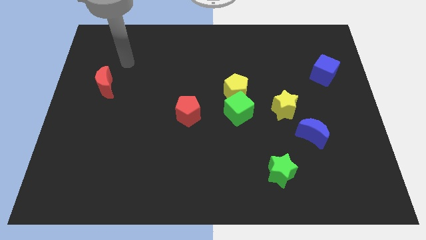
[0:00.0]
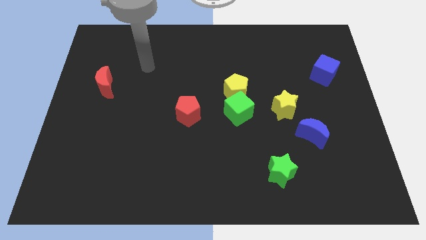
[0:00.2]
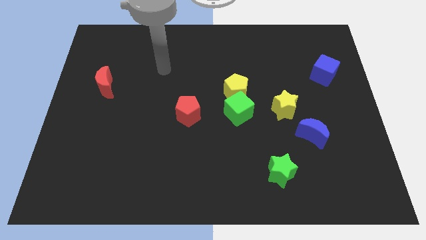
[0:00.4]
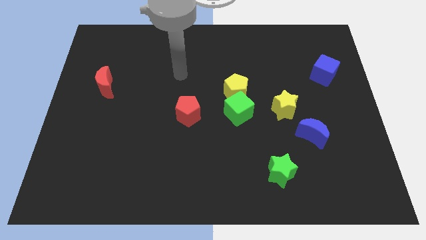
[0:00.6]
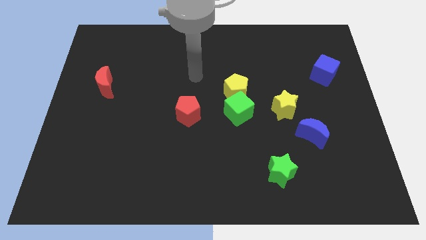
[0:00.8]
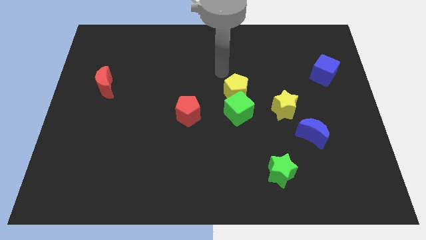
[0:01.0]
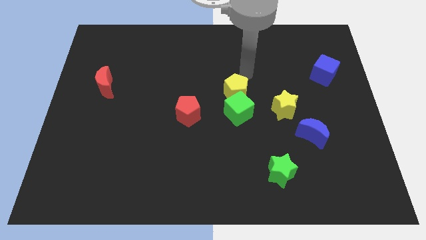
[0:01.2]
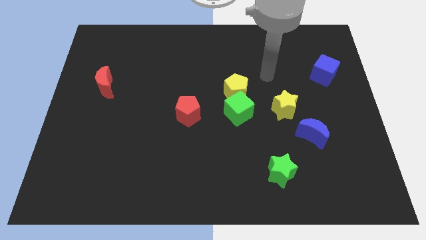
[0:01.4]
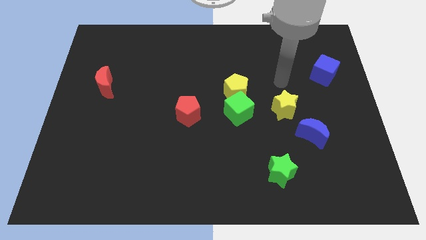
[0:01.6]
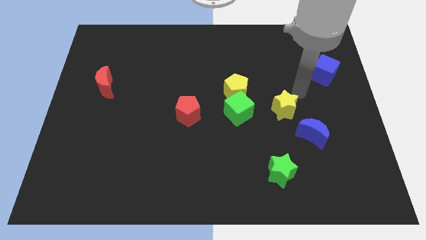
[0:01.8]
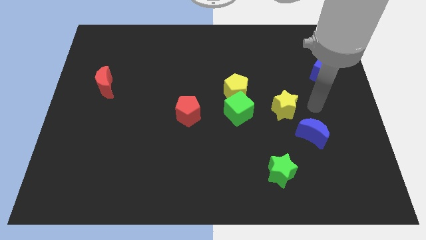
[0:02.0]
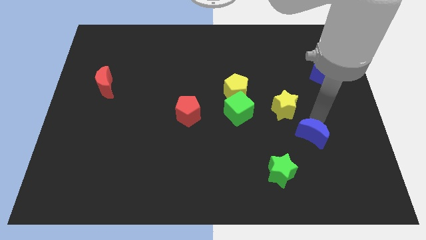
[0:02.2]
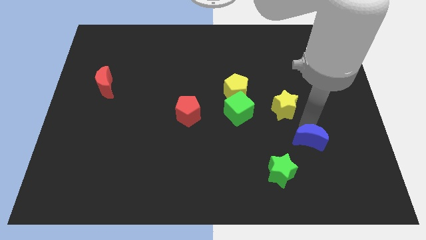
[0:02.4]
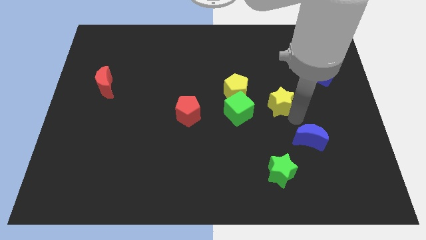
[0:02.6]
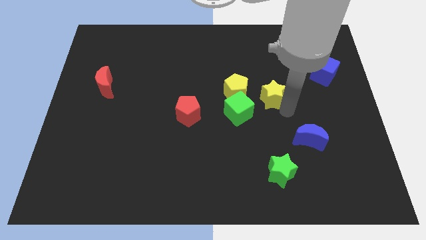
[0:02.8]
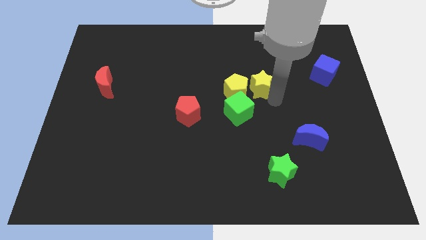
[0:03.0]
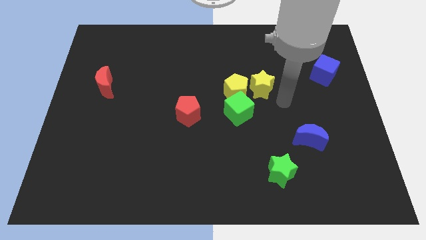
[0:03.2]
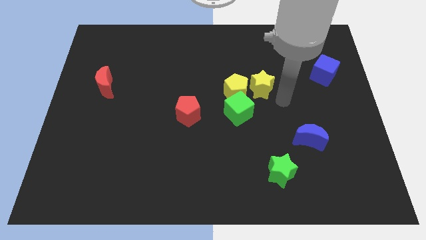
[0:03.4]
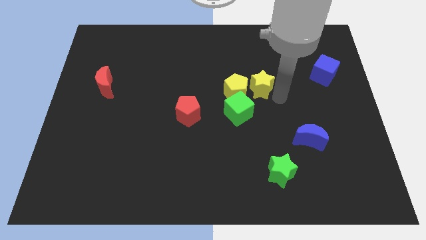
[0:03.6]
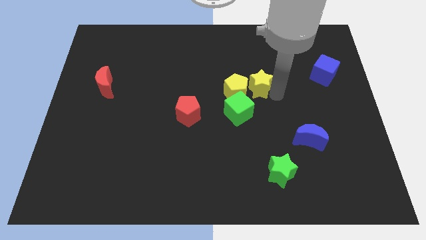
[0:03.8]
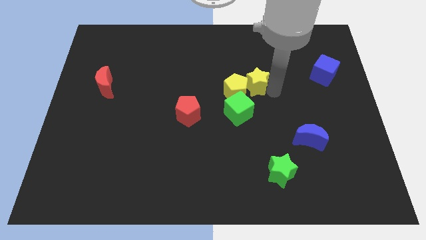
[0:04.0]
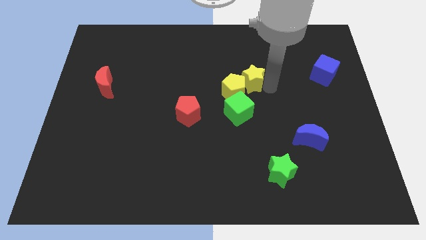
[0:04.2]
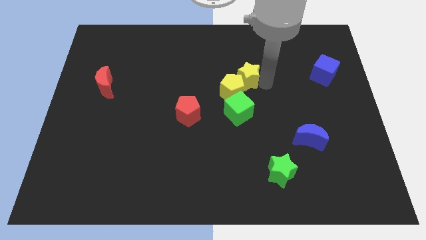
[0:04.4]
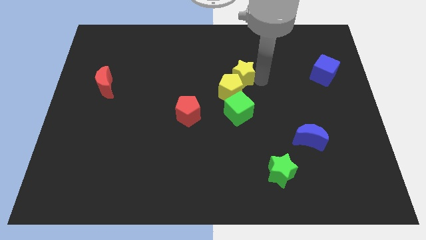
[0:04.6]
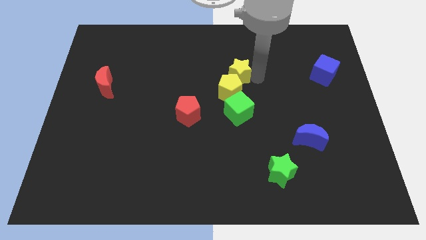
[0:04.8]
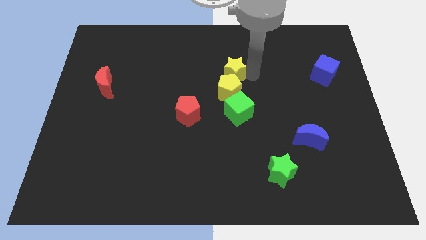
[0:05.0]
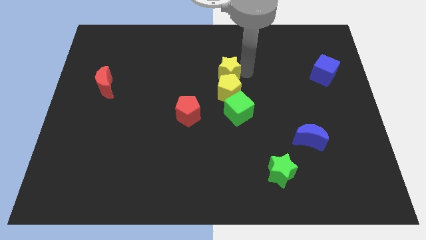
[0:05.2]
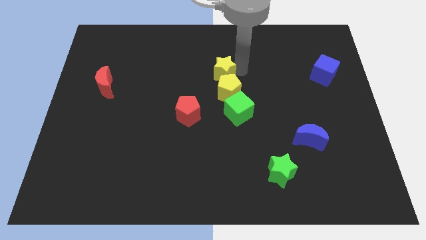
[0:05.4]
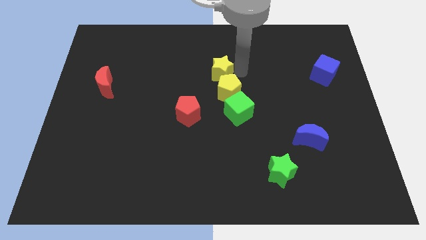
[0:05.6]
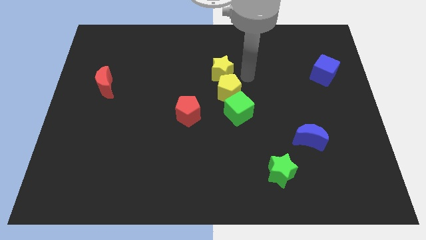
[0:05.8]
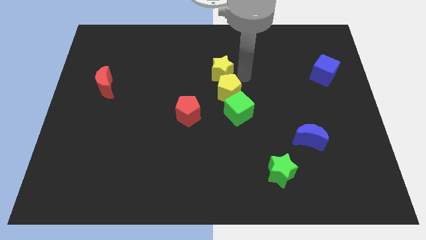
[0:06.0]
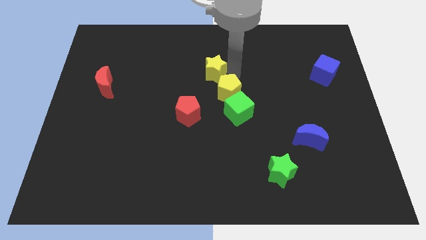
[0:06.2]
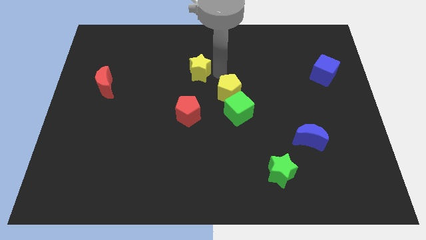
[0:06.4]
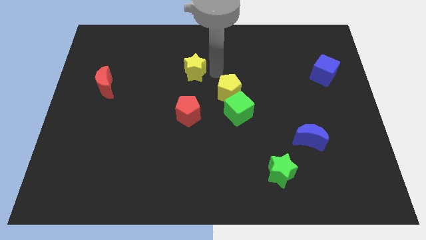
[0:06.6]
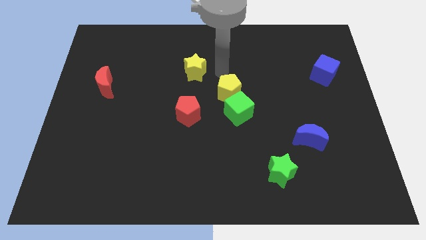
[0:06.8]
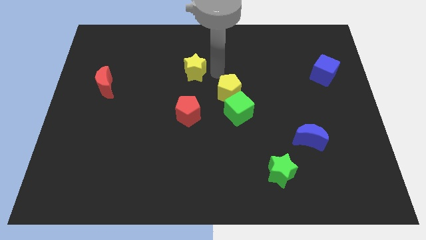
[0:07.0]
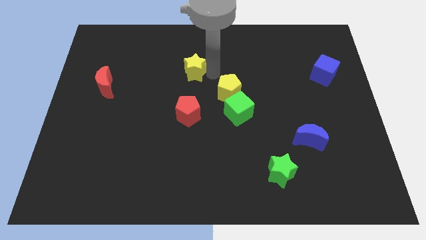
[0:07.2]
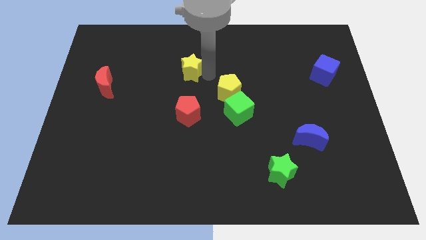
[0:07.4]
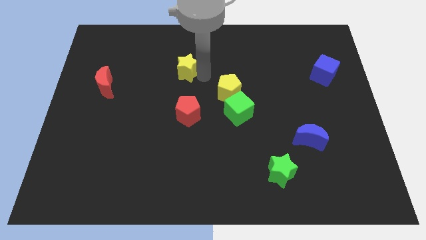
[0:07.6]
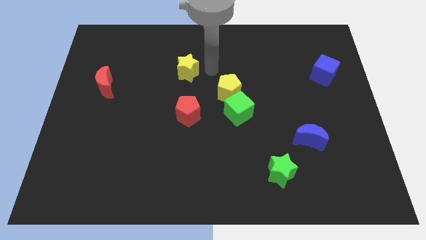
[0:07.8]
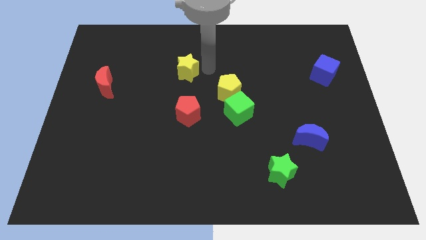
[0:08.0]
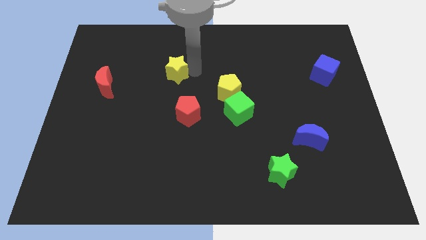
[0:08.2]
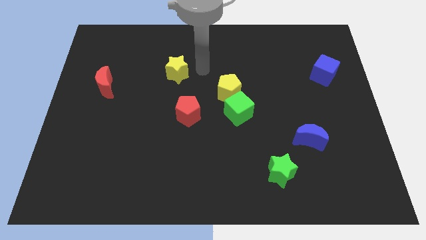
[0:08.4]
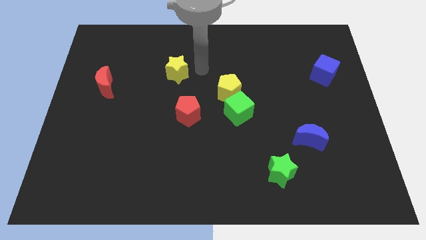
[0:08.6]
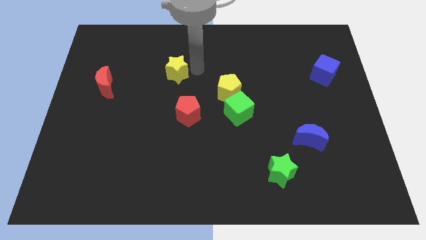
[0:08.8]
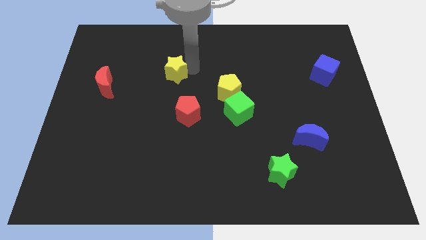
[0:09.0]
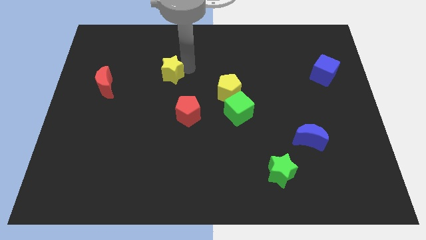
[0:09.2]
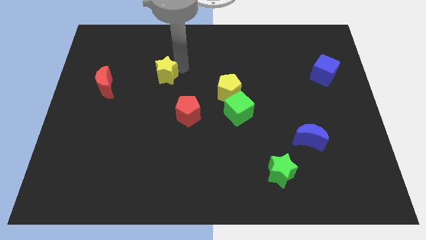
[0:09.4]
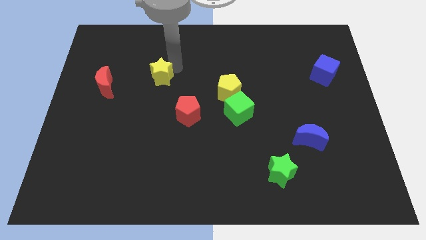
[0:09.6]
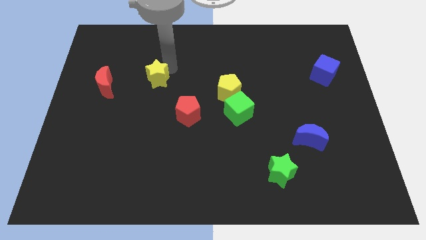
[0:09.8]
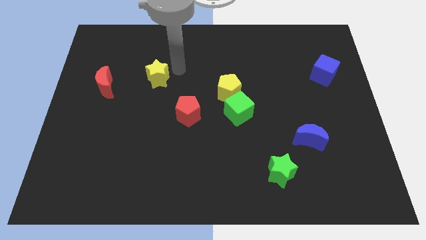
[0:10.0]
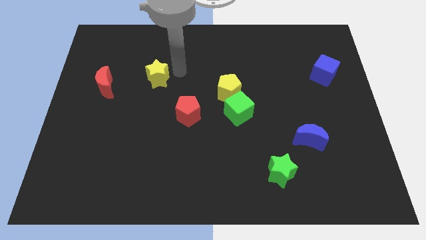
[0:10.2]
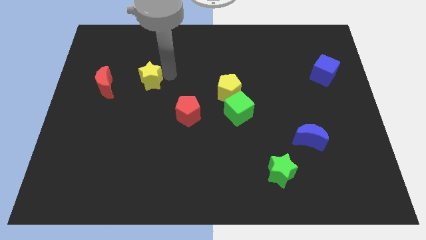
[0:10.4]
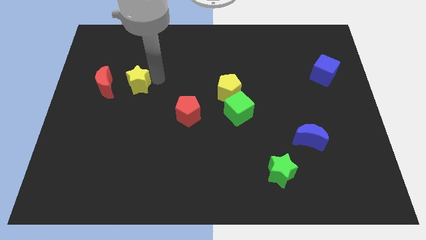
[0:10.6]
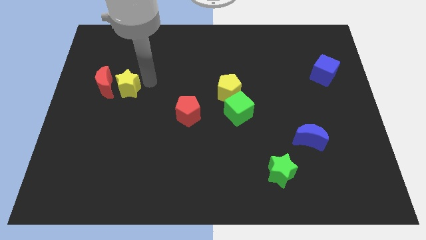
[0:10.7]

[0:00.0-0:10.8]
push the yellow star towards the red moon

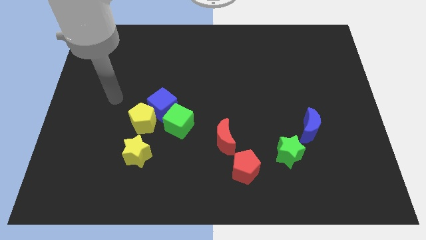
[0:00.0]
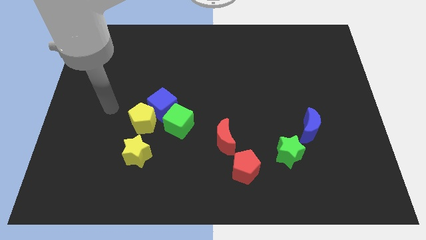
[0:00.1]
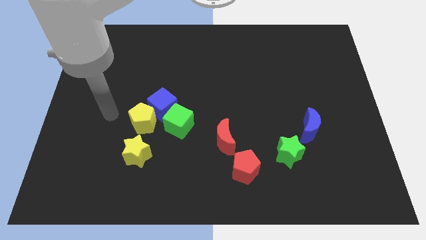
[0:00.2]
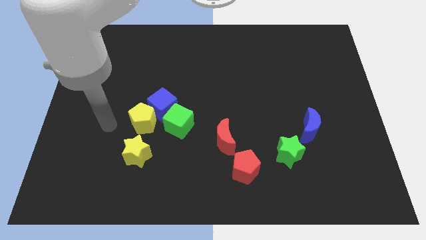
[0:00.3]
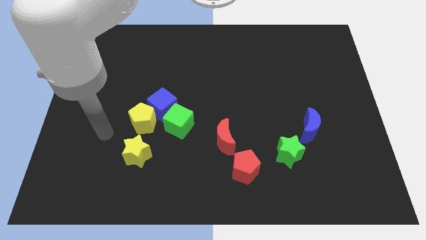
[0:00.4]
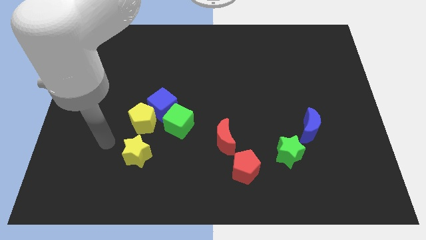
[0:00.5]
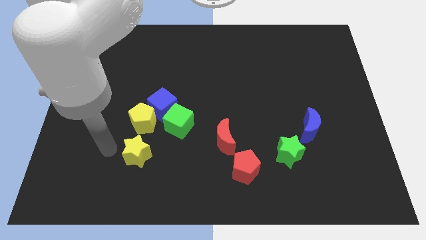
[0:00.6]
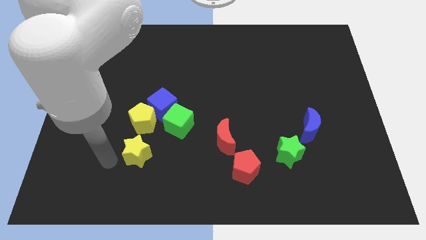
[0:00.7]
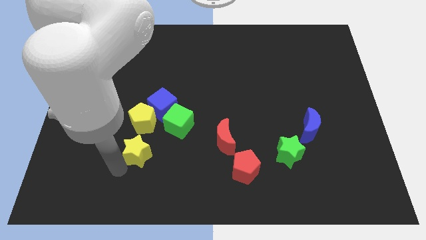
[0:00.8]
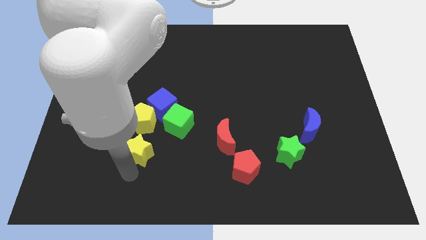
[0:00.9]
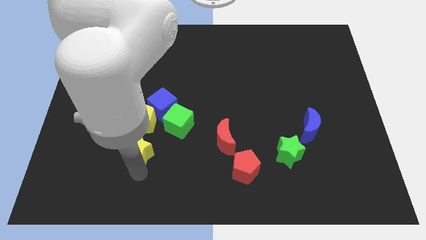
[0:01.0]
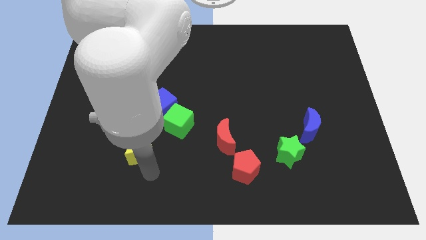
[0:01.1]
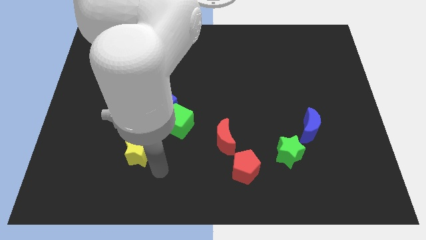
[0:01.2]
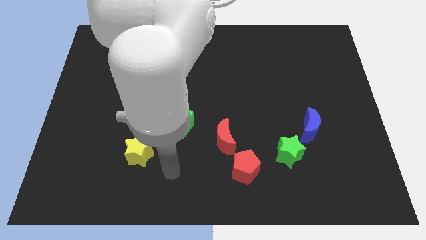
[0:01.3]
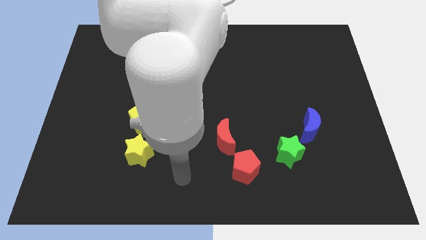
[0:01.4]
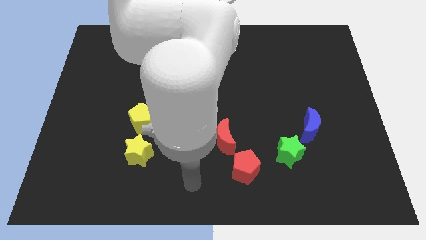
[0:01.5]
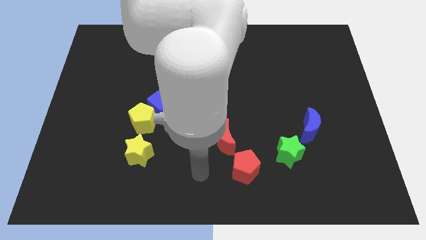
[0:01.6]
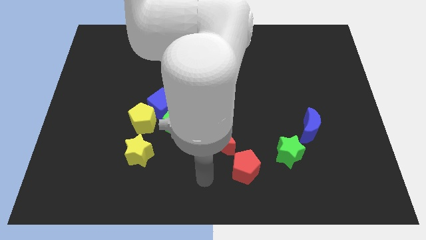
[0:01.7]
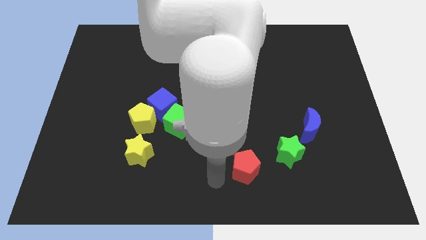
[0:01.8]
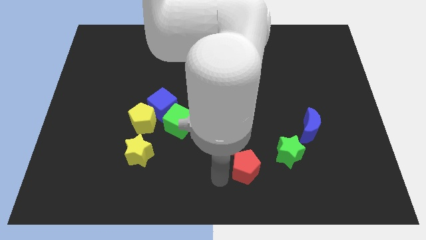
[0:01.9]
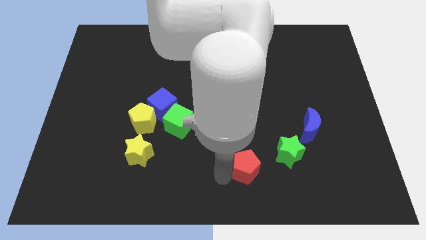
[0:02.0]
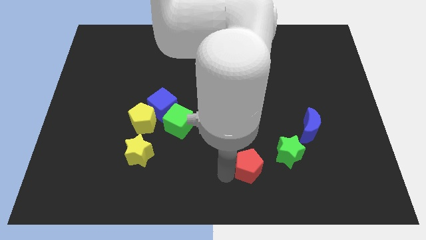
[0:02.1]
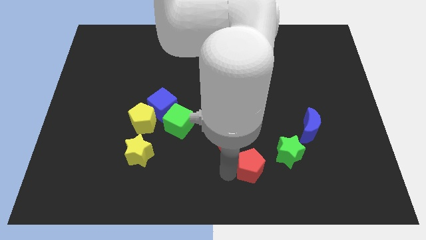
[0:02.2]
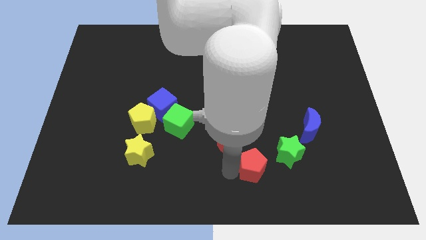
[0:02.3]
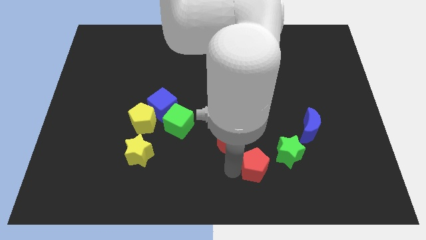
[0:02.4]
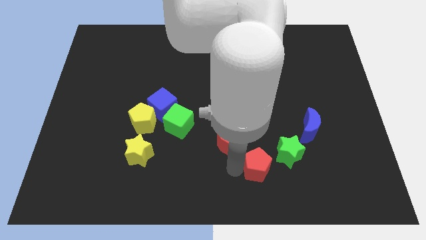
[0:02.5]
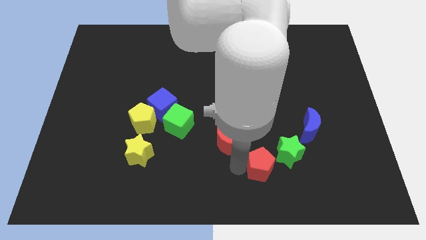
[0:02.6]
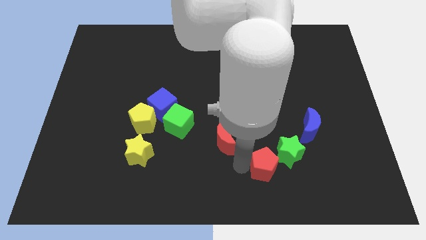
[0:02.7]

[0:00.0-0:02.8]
push the red pentagon to the green star
